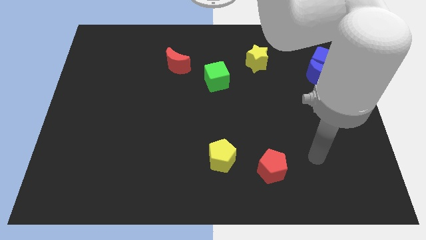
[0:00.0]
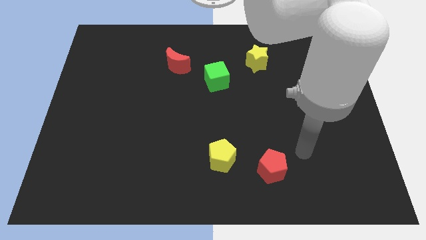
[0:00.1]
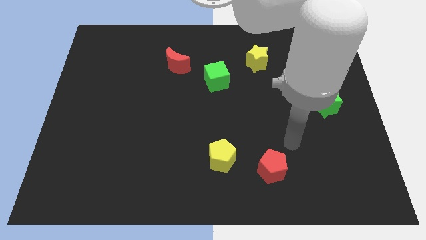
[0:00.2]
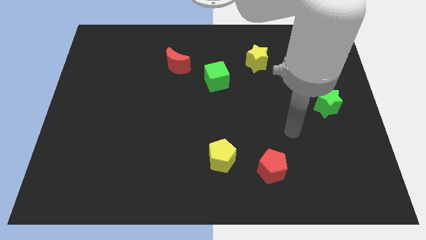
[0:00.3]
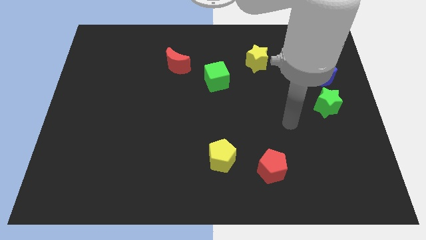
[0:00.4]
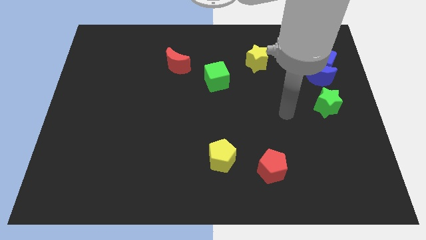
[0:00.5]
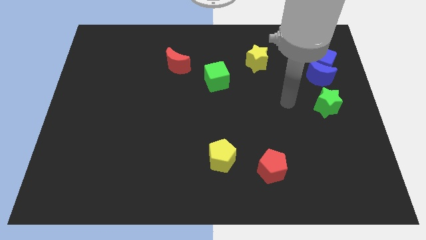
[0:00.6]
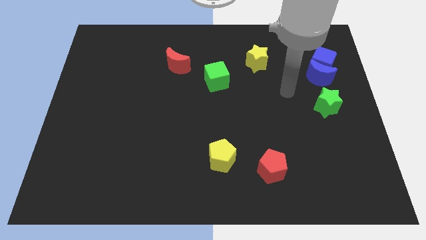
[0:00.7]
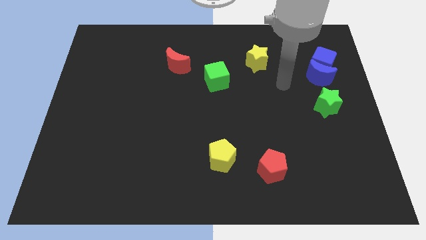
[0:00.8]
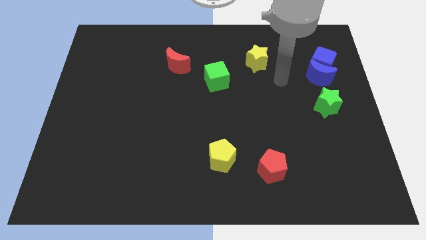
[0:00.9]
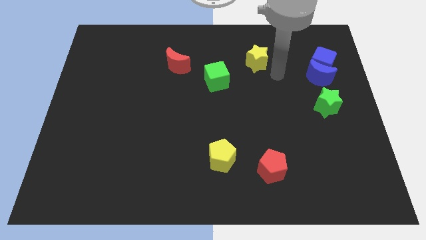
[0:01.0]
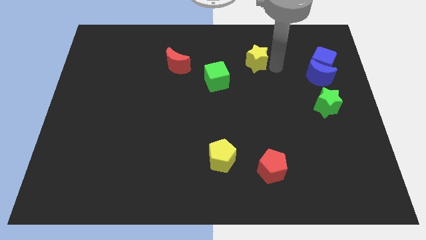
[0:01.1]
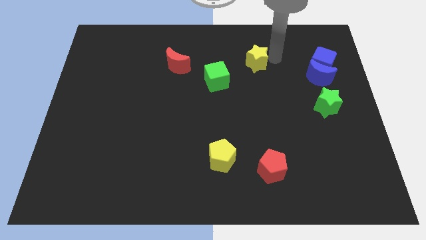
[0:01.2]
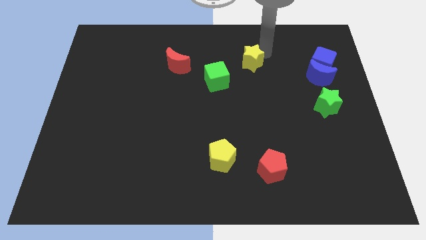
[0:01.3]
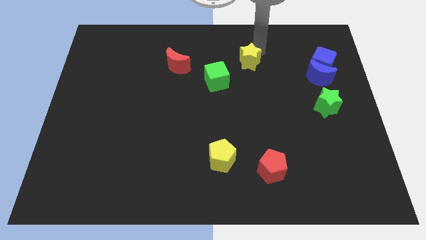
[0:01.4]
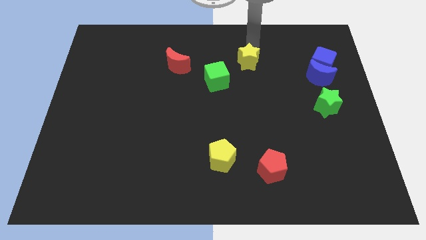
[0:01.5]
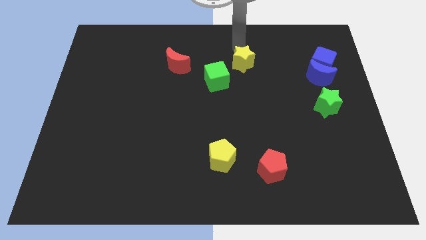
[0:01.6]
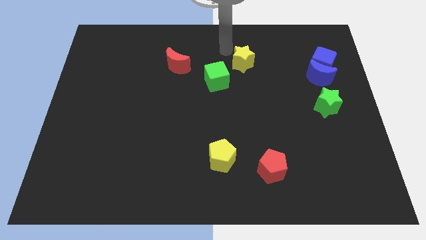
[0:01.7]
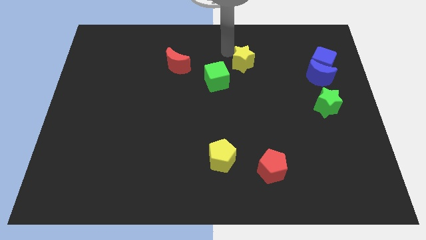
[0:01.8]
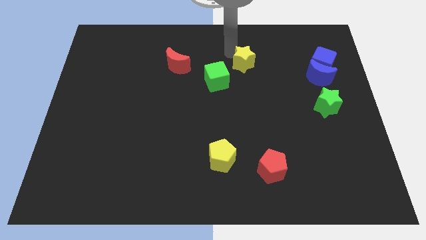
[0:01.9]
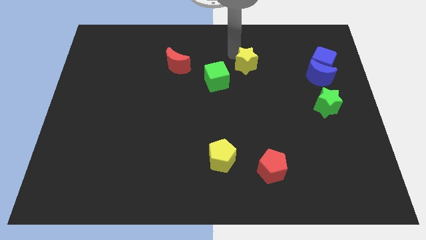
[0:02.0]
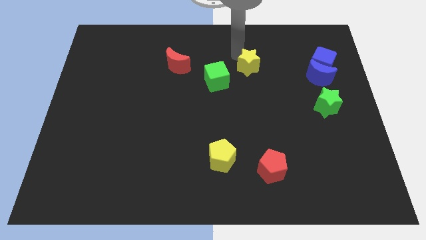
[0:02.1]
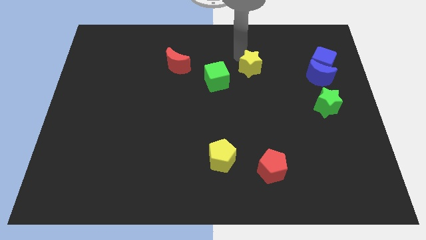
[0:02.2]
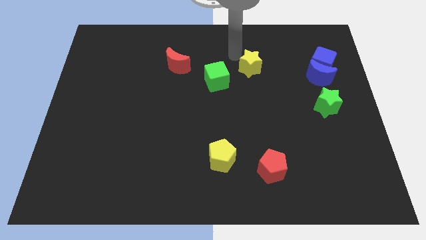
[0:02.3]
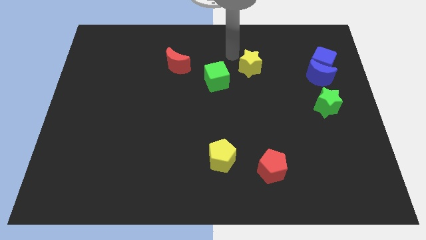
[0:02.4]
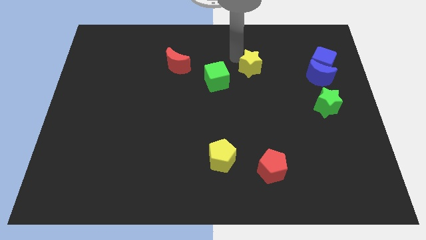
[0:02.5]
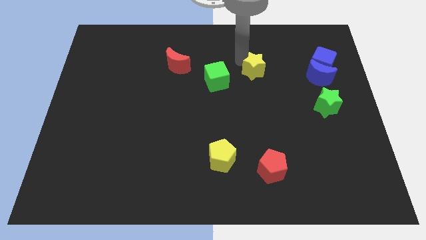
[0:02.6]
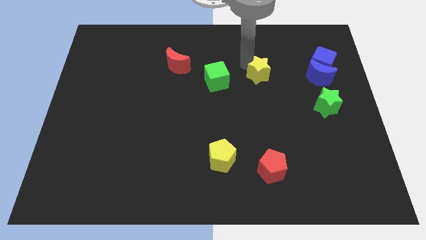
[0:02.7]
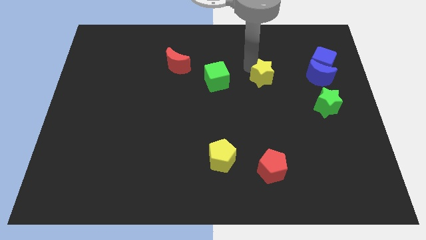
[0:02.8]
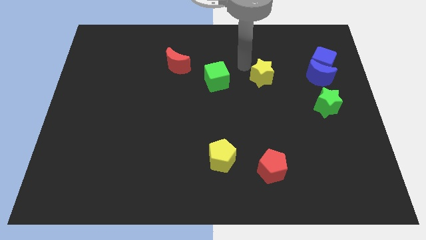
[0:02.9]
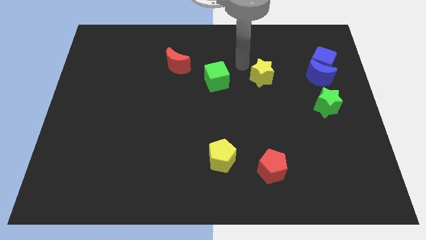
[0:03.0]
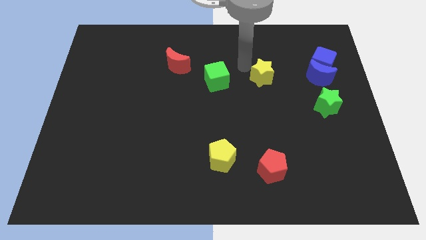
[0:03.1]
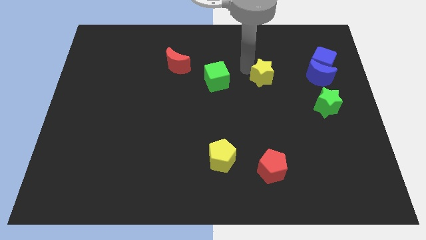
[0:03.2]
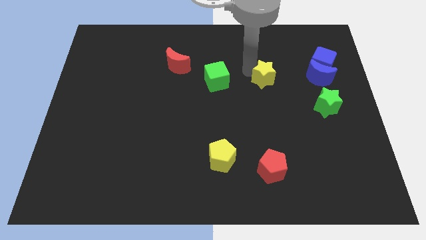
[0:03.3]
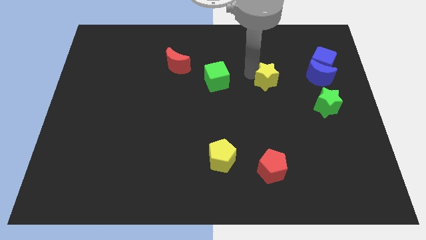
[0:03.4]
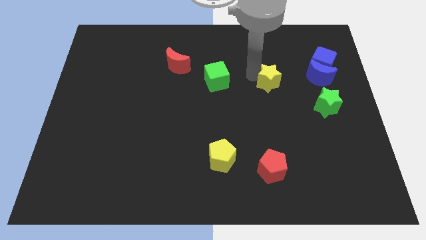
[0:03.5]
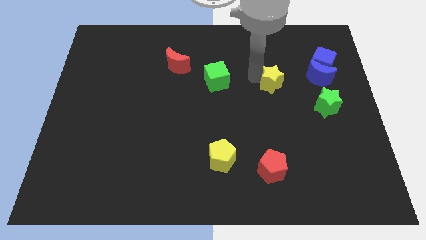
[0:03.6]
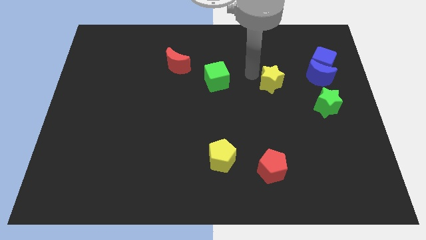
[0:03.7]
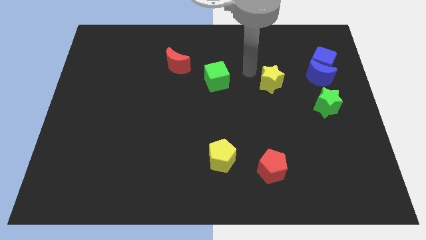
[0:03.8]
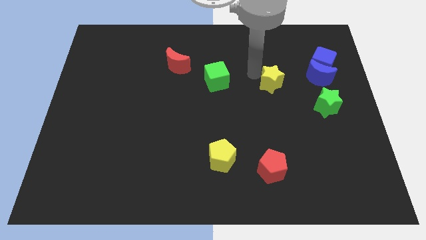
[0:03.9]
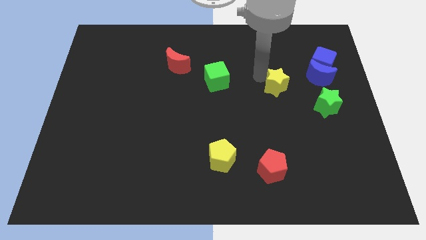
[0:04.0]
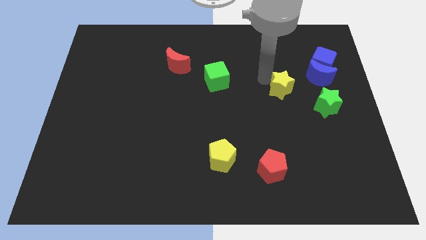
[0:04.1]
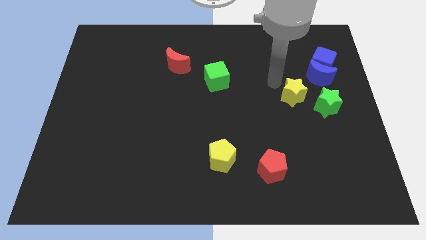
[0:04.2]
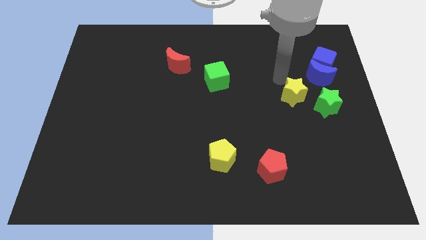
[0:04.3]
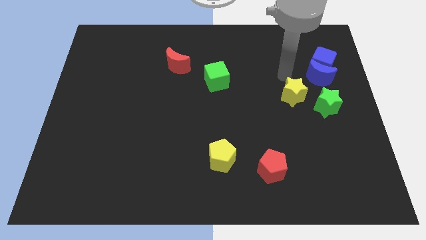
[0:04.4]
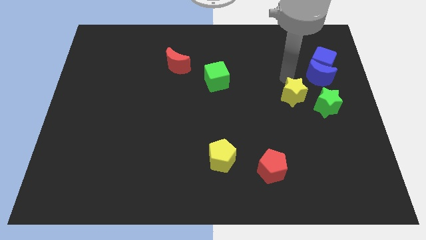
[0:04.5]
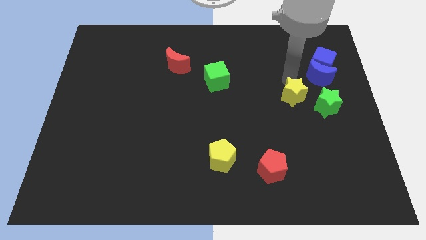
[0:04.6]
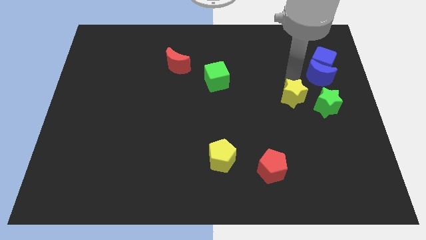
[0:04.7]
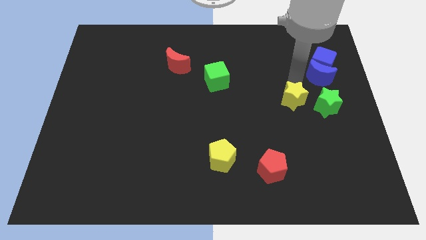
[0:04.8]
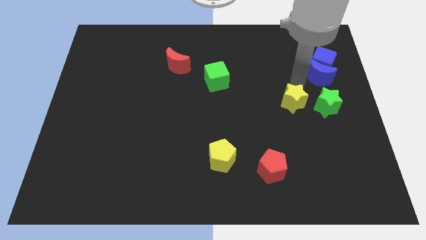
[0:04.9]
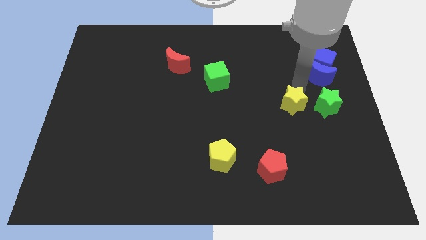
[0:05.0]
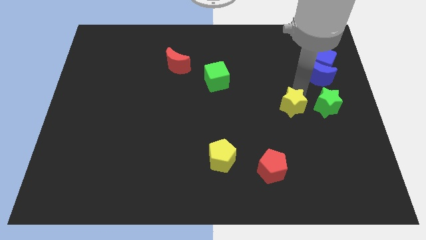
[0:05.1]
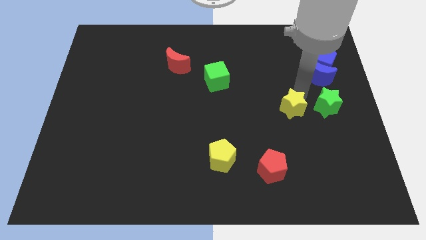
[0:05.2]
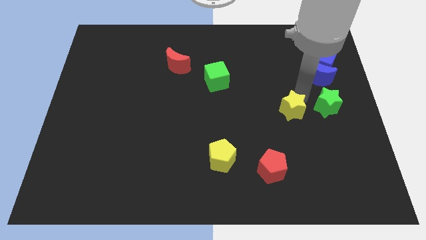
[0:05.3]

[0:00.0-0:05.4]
put the yellow star diagonally down and to the left of the green star

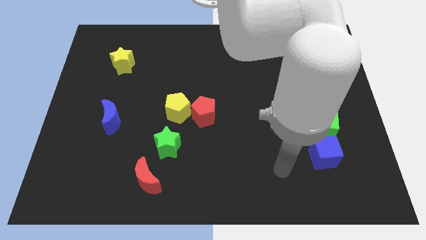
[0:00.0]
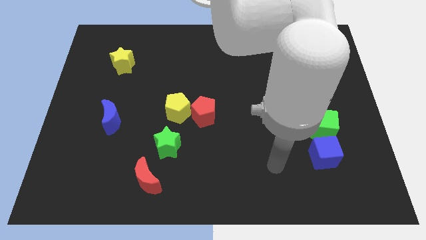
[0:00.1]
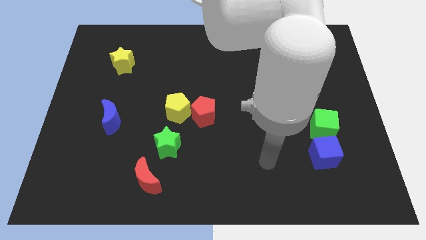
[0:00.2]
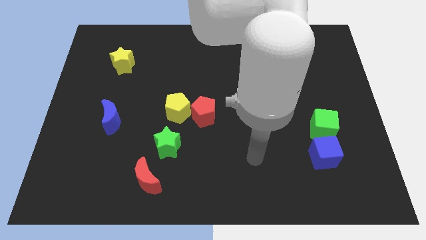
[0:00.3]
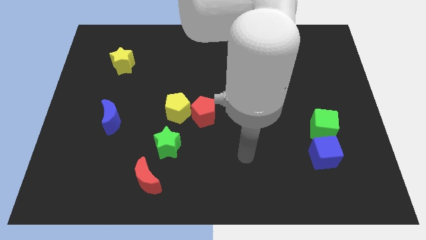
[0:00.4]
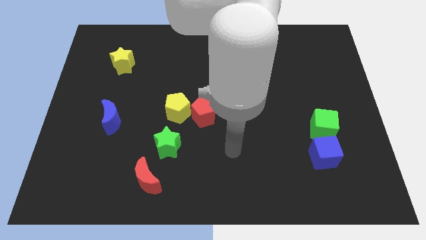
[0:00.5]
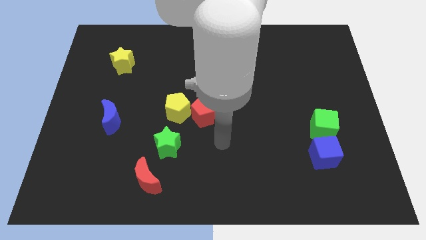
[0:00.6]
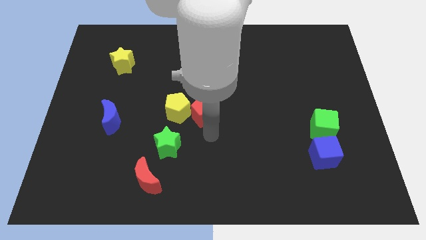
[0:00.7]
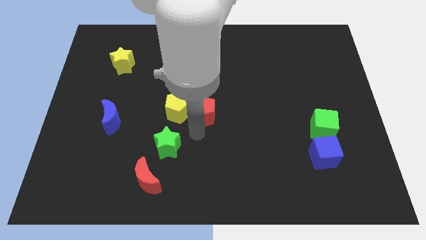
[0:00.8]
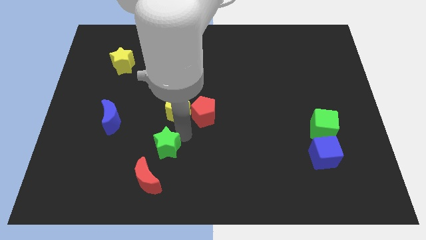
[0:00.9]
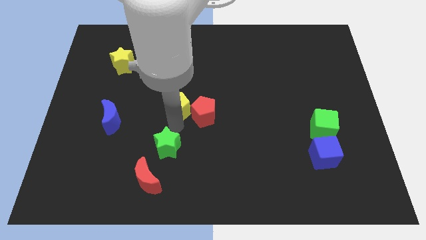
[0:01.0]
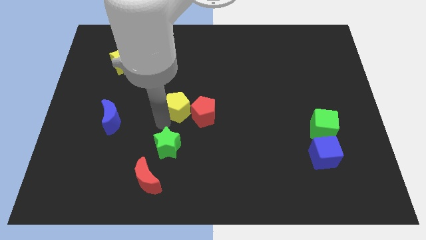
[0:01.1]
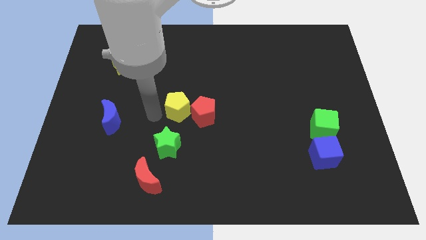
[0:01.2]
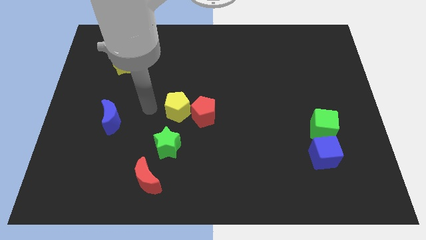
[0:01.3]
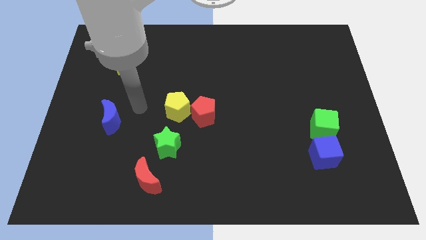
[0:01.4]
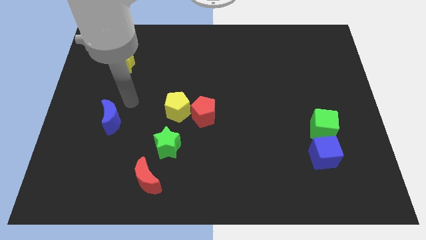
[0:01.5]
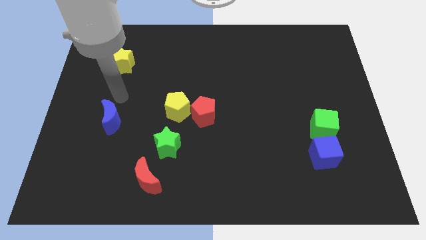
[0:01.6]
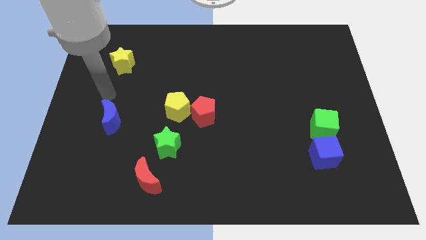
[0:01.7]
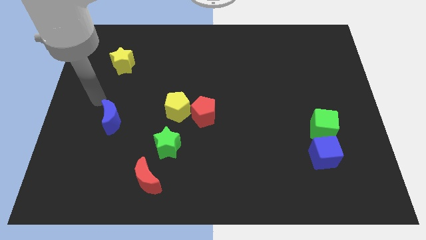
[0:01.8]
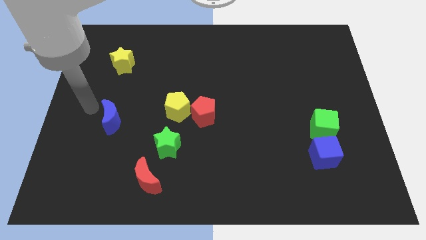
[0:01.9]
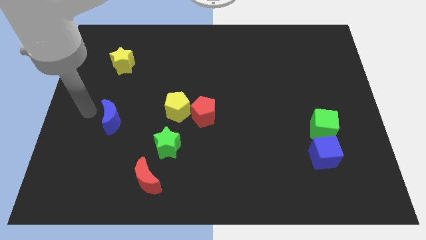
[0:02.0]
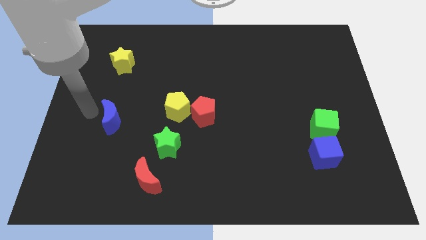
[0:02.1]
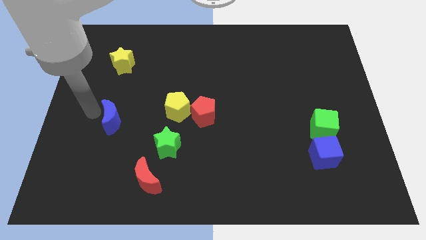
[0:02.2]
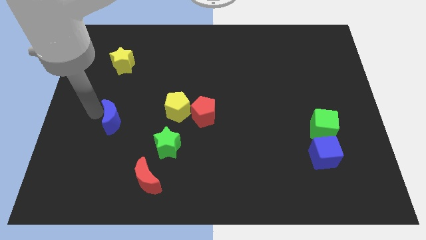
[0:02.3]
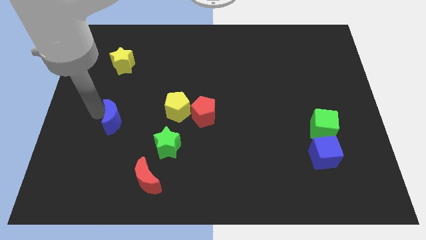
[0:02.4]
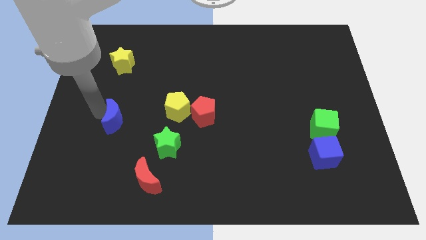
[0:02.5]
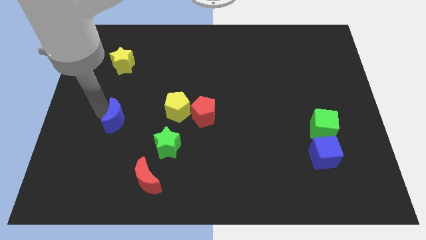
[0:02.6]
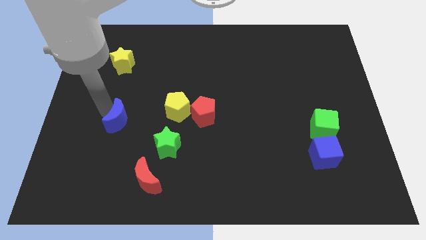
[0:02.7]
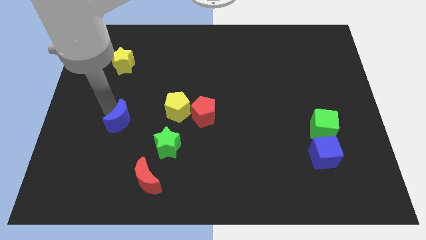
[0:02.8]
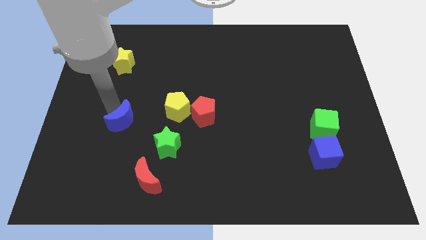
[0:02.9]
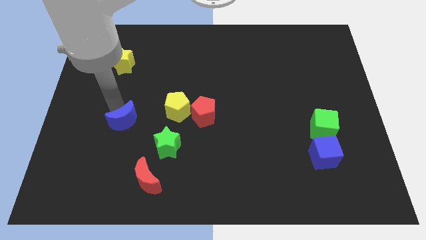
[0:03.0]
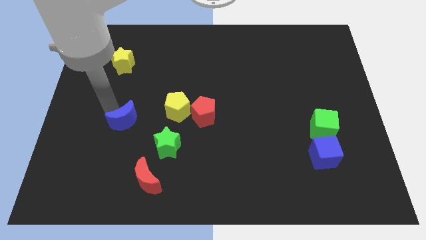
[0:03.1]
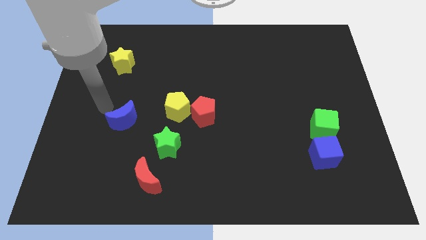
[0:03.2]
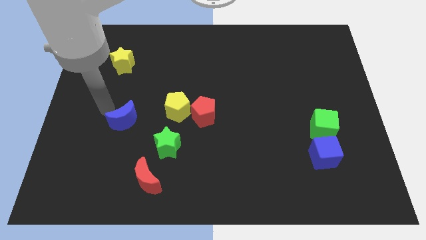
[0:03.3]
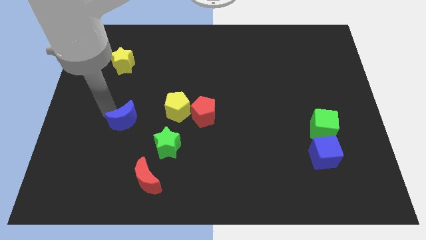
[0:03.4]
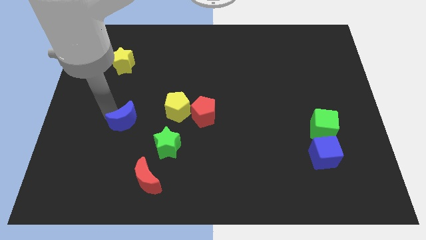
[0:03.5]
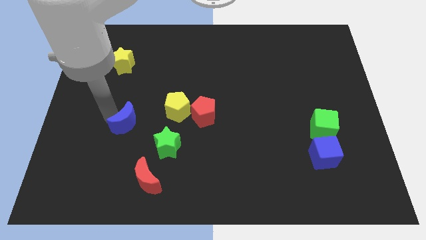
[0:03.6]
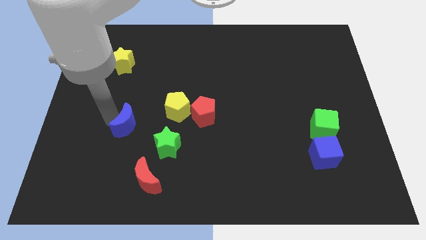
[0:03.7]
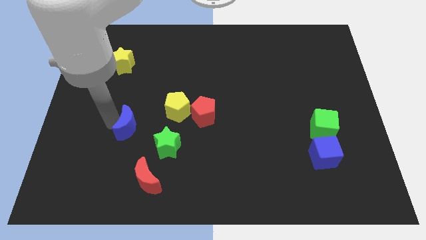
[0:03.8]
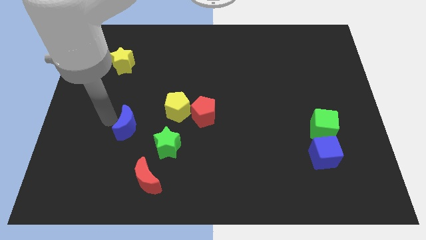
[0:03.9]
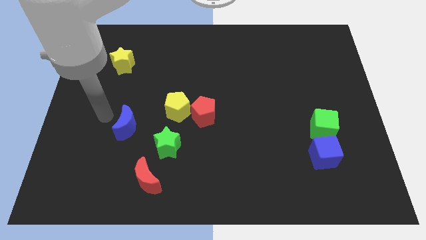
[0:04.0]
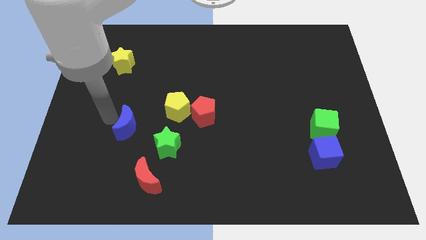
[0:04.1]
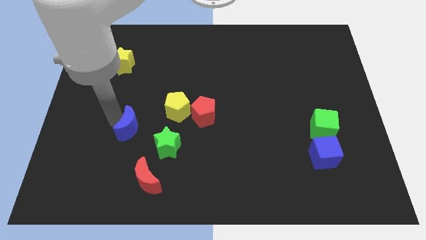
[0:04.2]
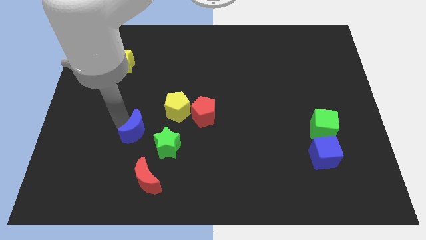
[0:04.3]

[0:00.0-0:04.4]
move the blue moon to the top of the red moon
